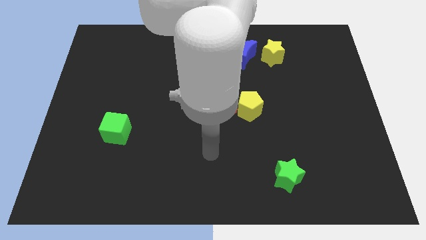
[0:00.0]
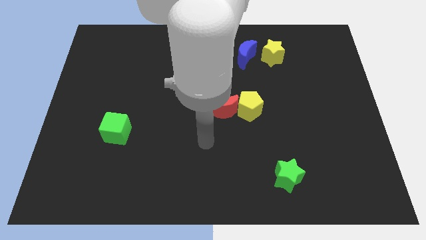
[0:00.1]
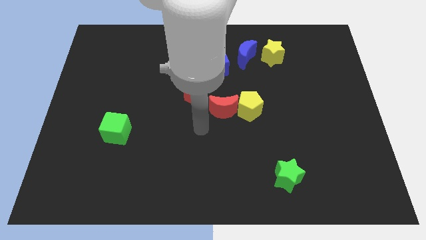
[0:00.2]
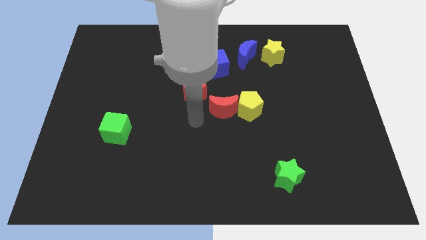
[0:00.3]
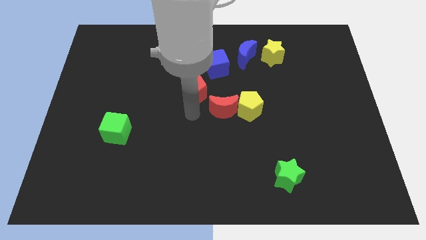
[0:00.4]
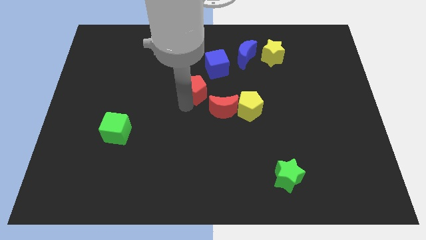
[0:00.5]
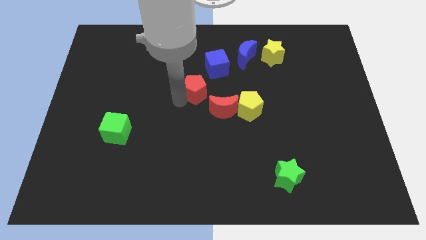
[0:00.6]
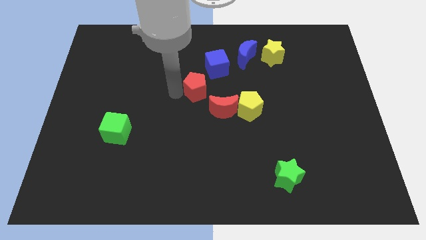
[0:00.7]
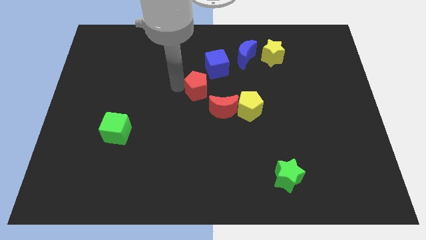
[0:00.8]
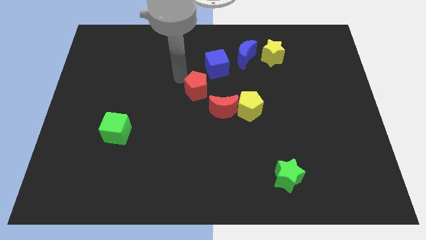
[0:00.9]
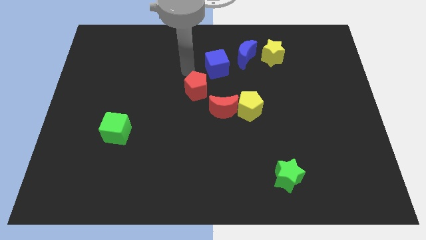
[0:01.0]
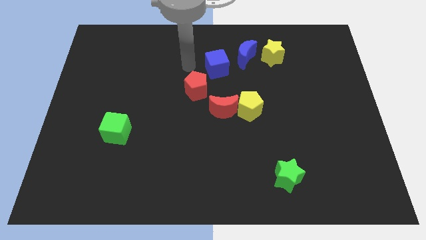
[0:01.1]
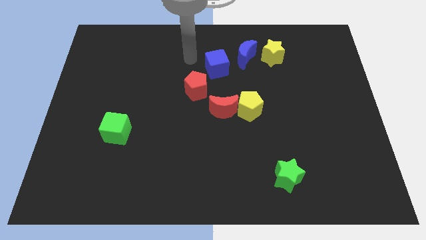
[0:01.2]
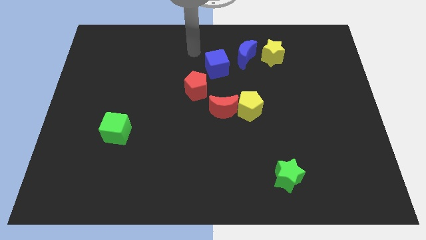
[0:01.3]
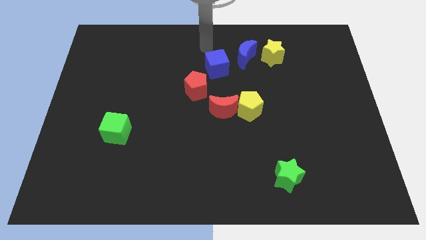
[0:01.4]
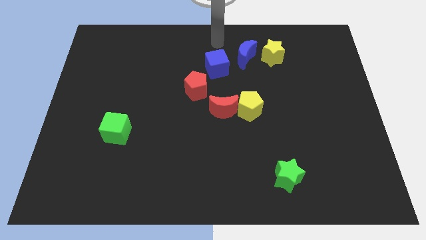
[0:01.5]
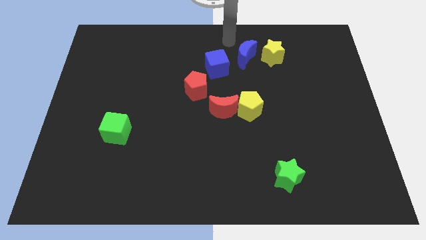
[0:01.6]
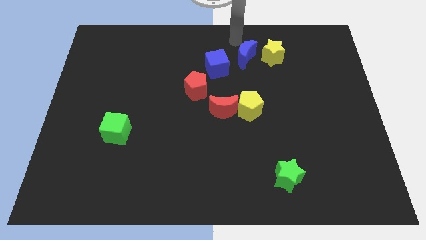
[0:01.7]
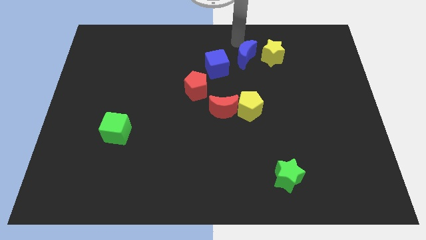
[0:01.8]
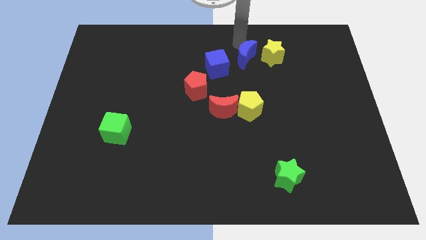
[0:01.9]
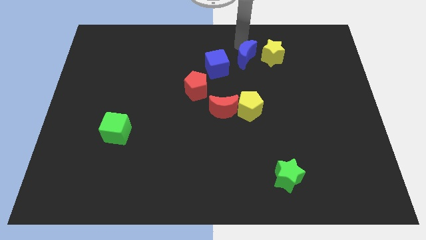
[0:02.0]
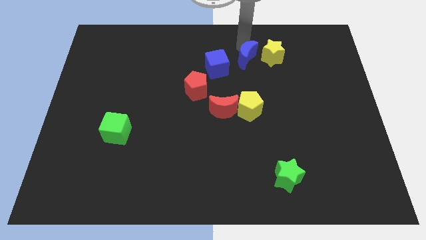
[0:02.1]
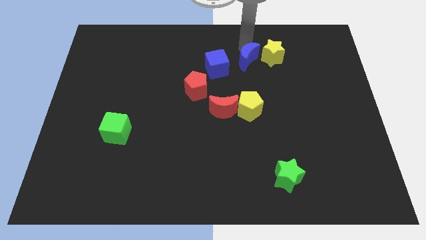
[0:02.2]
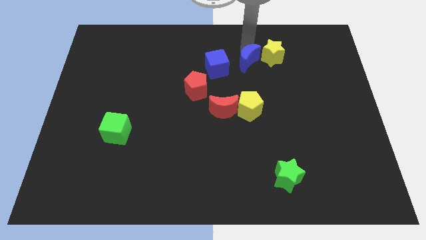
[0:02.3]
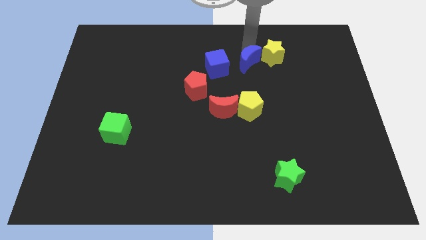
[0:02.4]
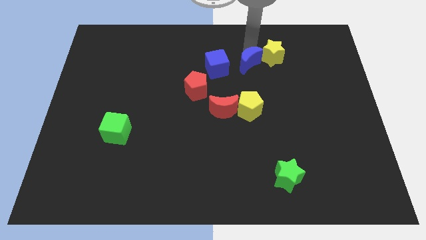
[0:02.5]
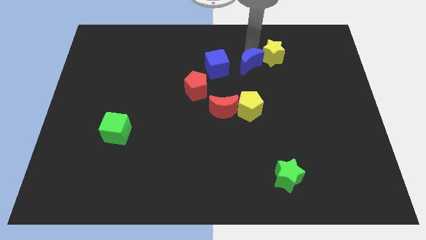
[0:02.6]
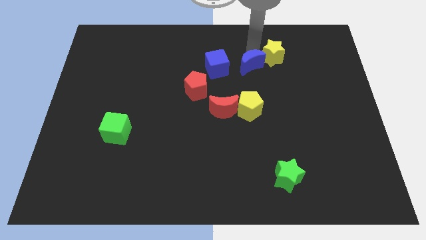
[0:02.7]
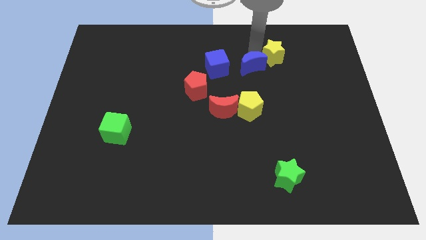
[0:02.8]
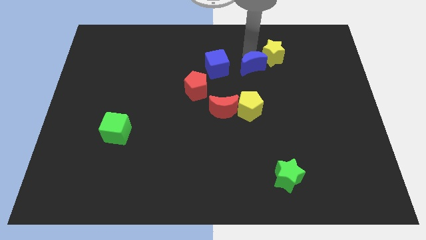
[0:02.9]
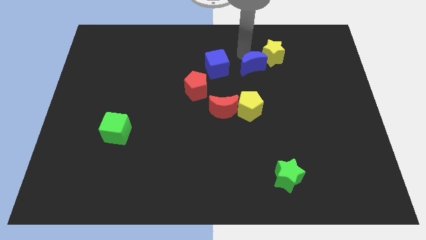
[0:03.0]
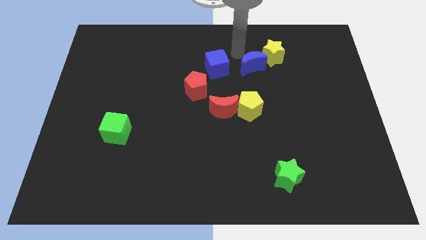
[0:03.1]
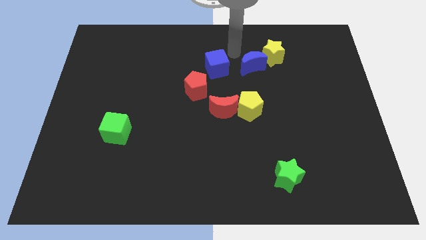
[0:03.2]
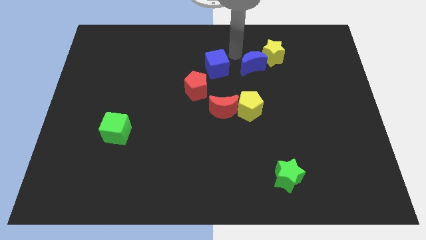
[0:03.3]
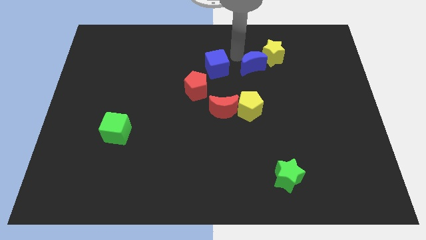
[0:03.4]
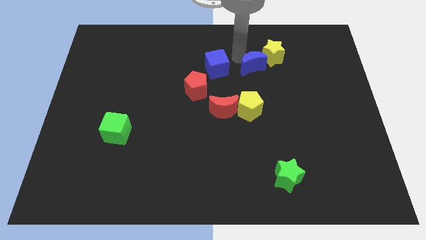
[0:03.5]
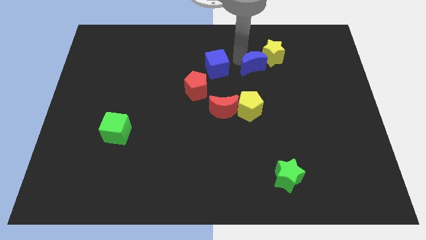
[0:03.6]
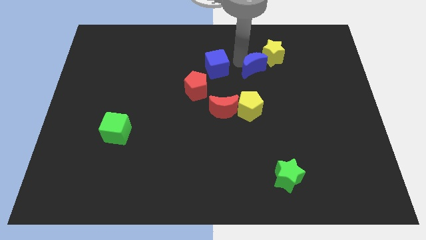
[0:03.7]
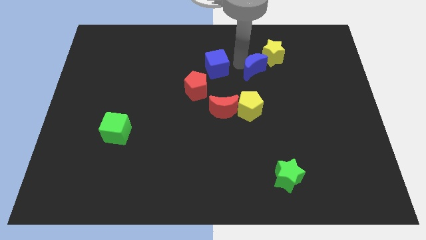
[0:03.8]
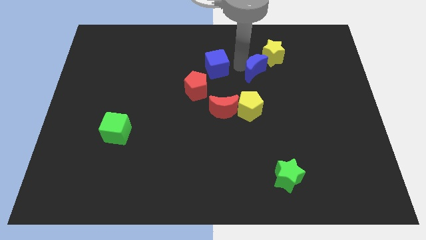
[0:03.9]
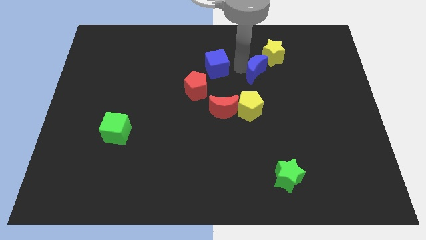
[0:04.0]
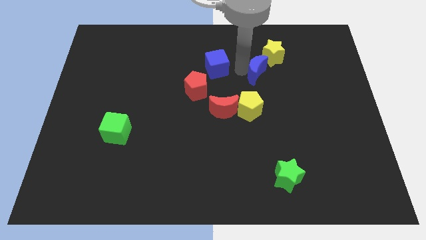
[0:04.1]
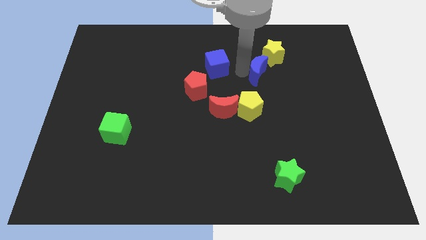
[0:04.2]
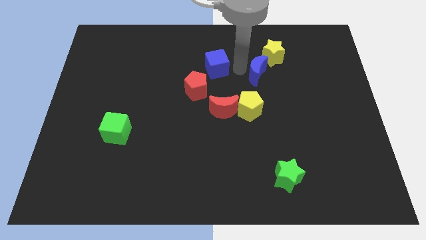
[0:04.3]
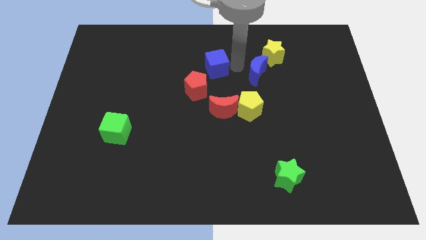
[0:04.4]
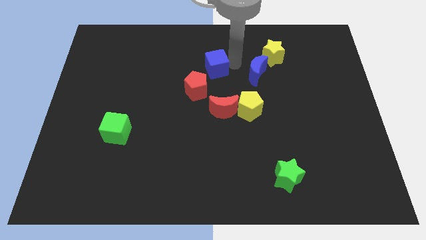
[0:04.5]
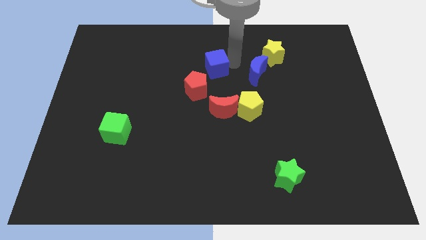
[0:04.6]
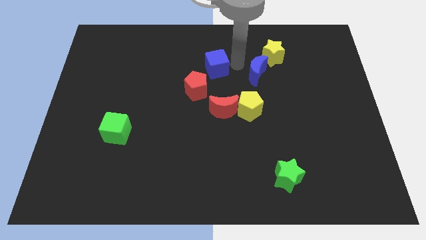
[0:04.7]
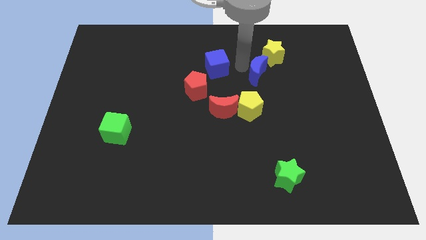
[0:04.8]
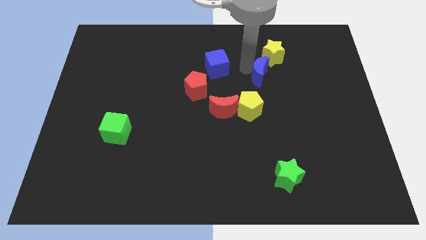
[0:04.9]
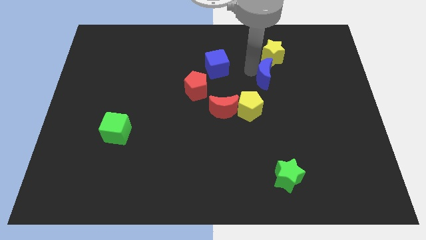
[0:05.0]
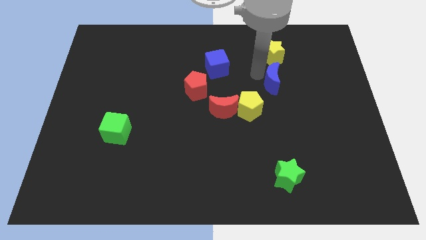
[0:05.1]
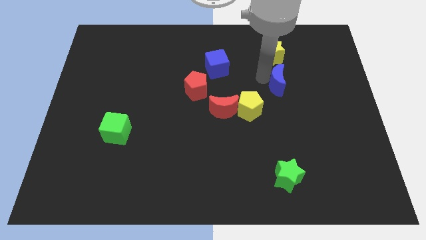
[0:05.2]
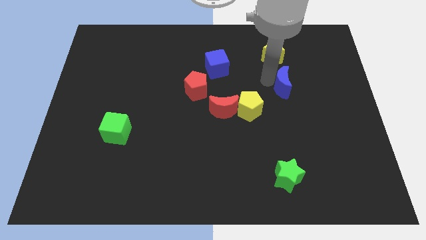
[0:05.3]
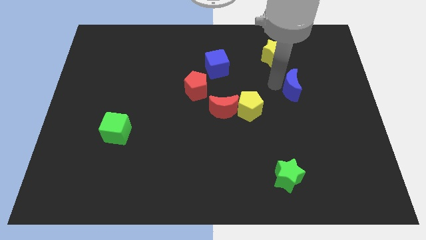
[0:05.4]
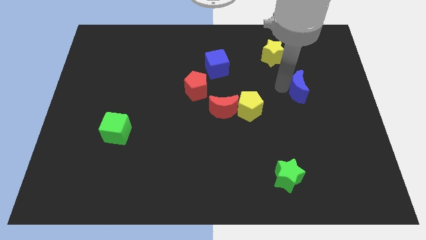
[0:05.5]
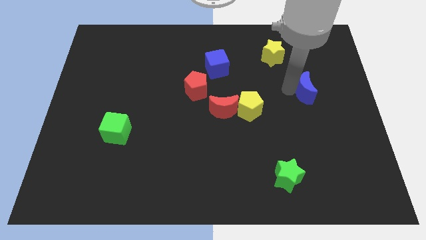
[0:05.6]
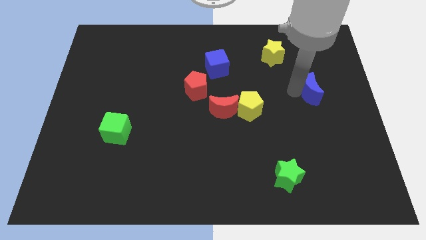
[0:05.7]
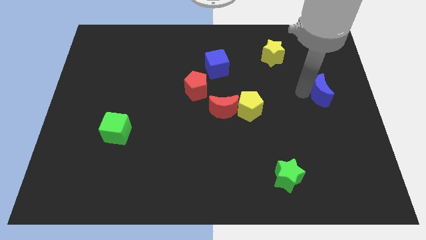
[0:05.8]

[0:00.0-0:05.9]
push the blue moon to the right side
